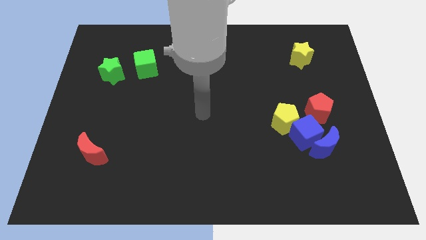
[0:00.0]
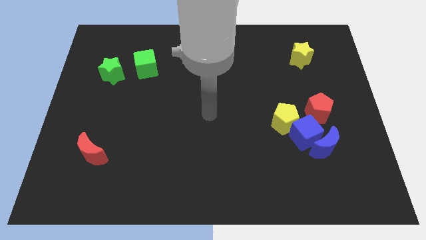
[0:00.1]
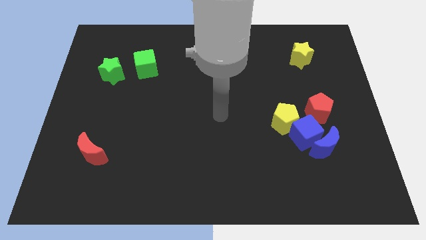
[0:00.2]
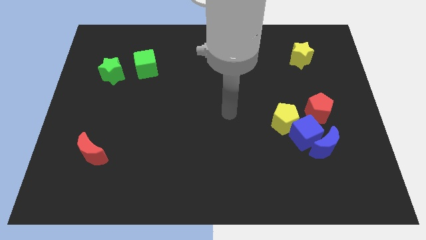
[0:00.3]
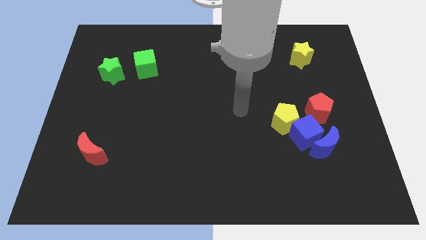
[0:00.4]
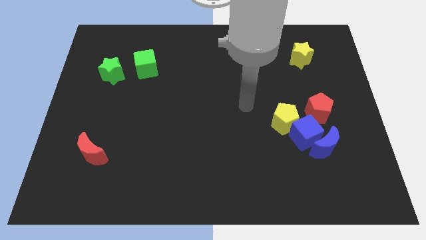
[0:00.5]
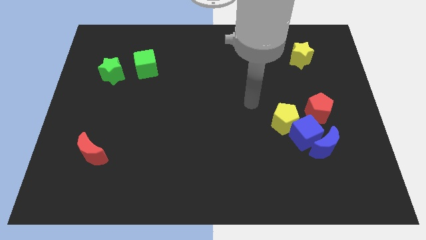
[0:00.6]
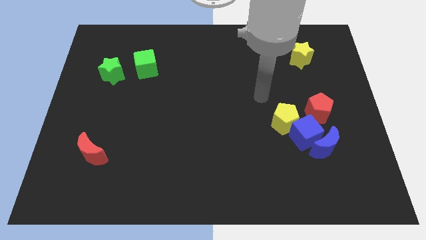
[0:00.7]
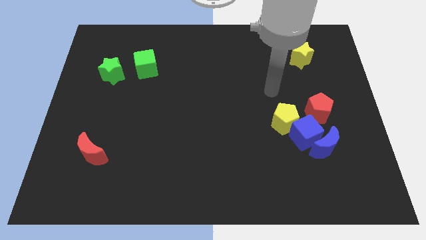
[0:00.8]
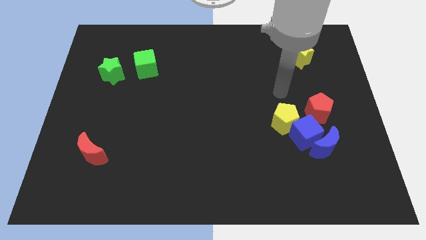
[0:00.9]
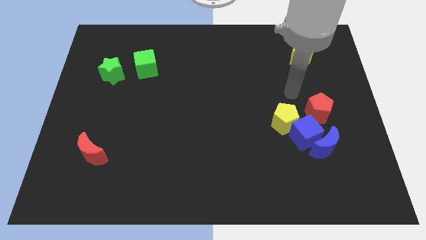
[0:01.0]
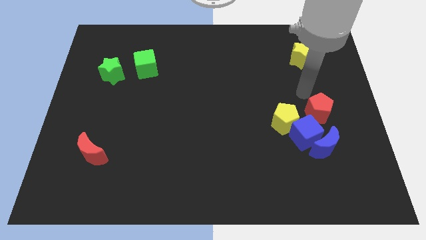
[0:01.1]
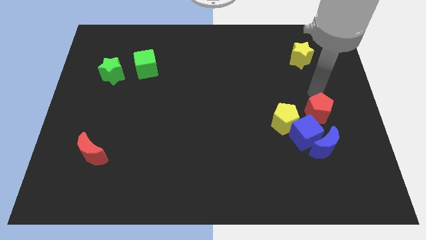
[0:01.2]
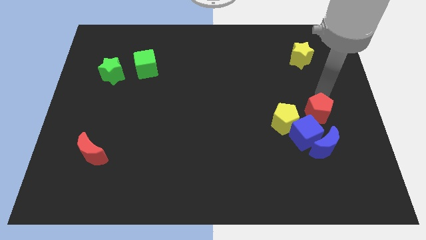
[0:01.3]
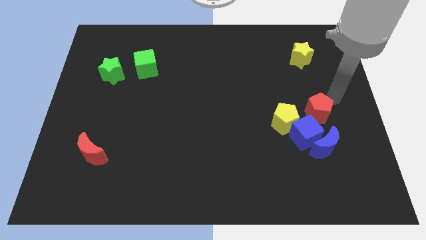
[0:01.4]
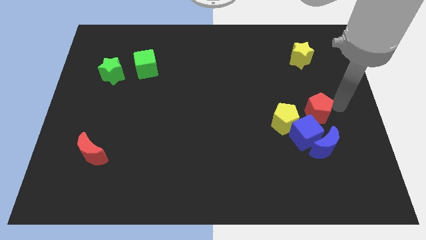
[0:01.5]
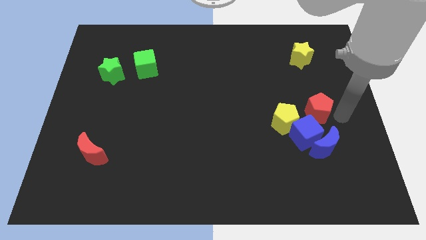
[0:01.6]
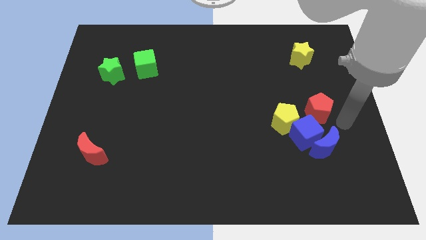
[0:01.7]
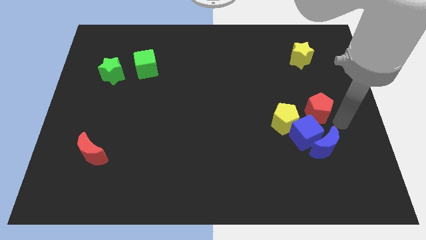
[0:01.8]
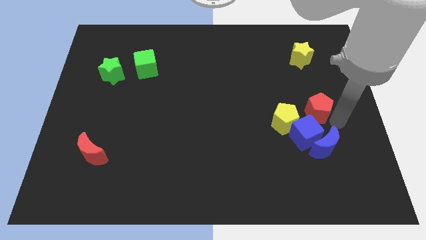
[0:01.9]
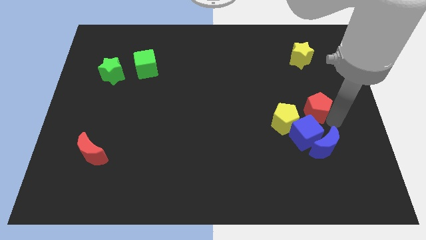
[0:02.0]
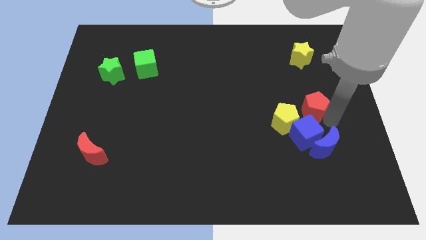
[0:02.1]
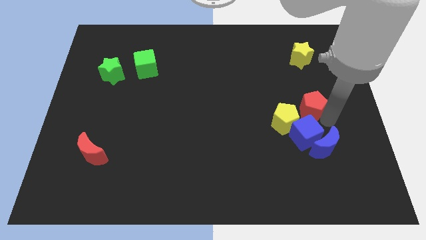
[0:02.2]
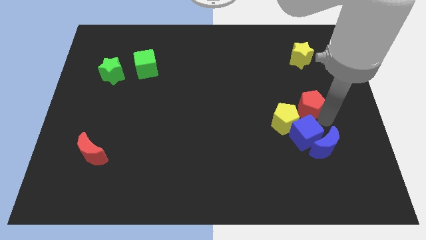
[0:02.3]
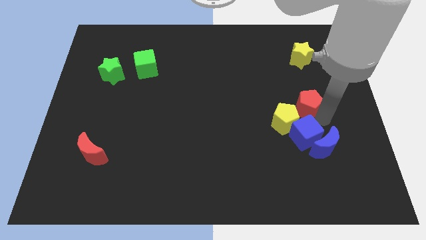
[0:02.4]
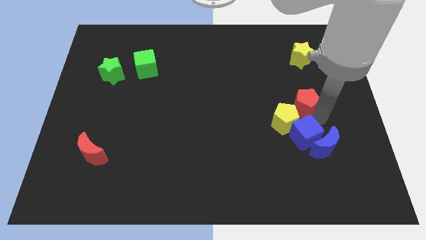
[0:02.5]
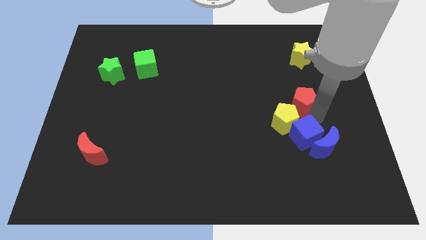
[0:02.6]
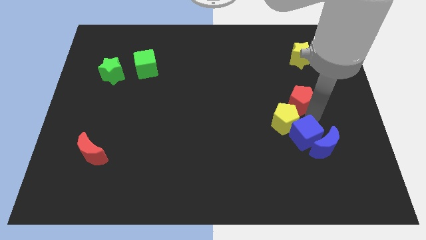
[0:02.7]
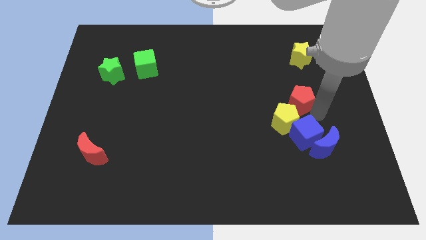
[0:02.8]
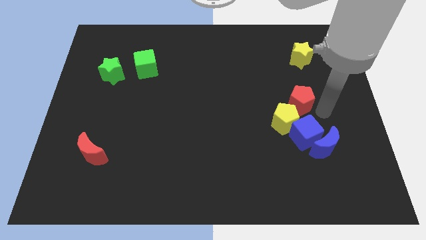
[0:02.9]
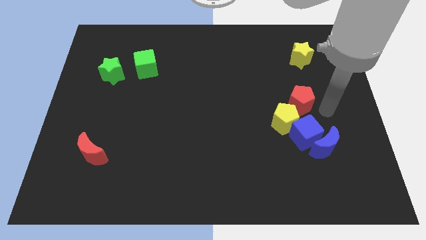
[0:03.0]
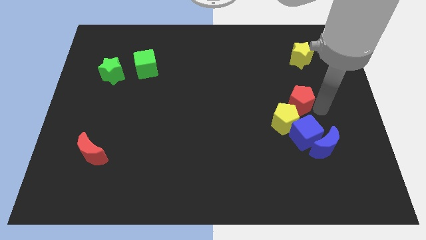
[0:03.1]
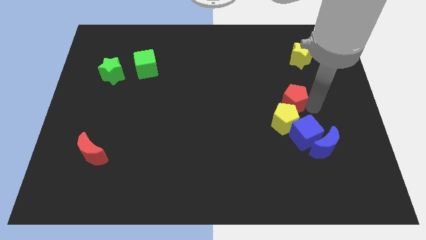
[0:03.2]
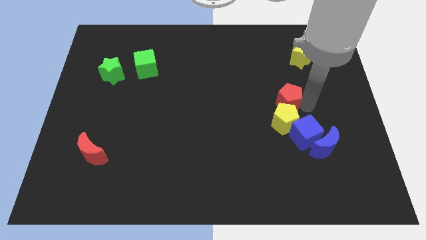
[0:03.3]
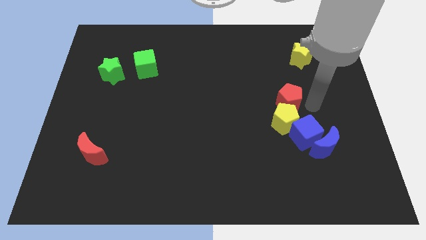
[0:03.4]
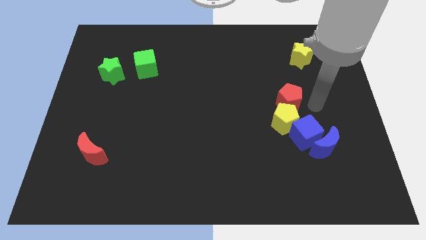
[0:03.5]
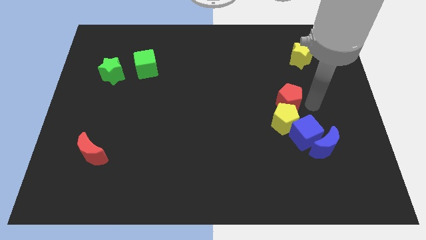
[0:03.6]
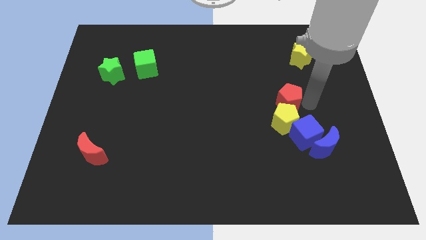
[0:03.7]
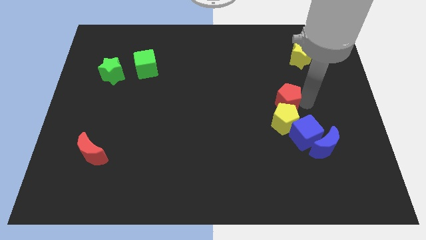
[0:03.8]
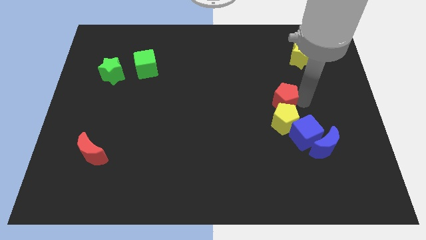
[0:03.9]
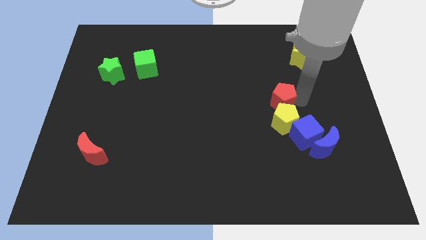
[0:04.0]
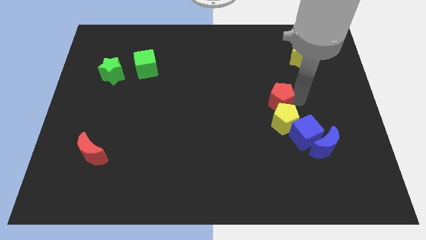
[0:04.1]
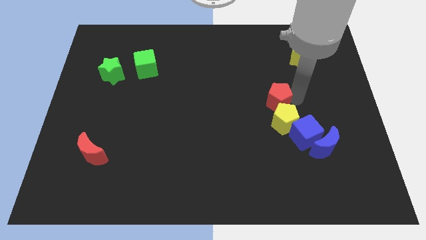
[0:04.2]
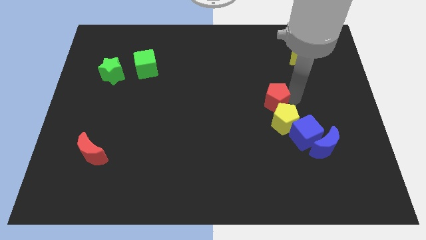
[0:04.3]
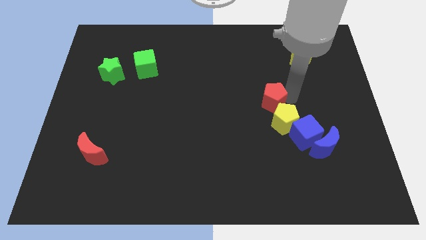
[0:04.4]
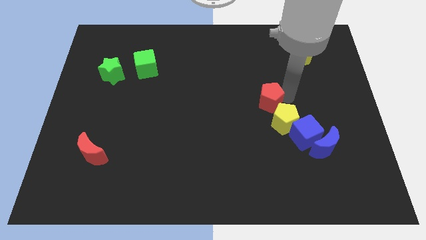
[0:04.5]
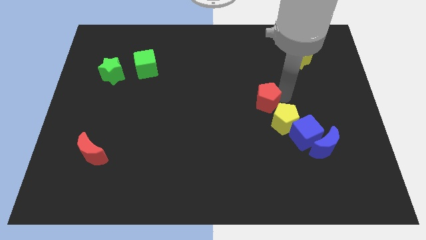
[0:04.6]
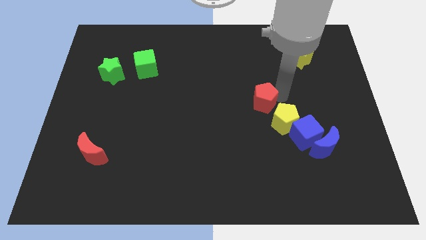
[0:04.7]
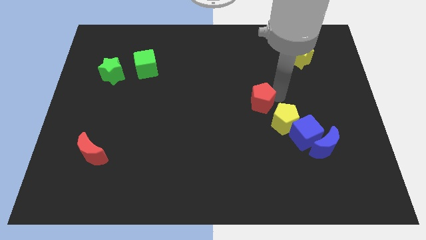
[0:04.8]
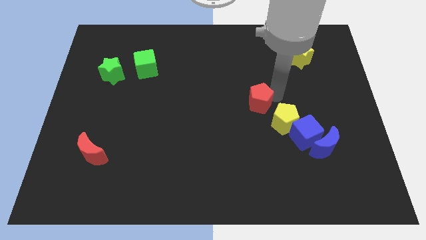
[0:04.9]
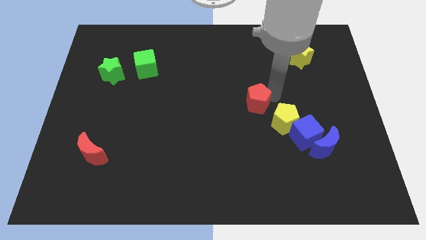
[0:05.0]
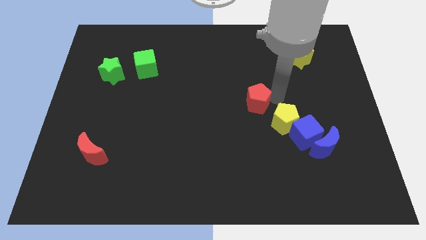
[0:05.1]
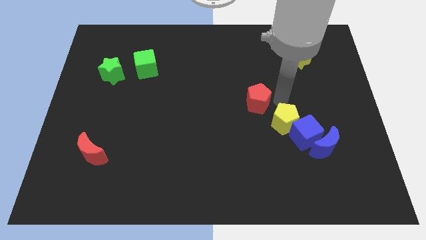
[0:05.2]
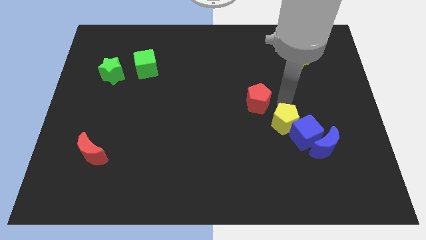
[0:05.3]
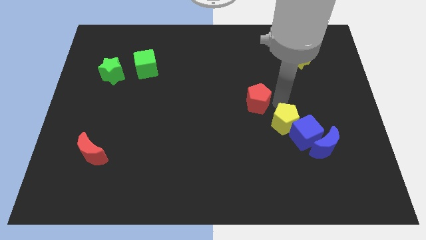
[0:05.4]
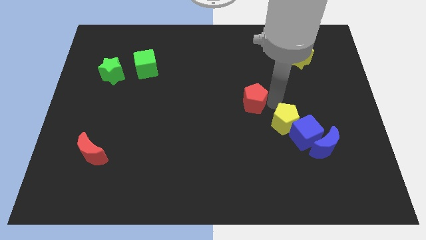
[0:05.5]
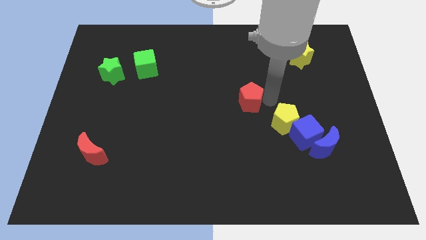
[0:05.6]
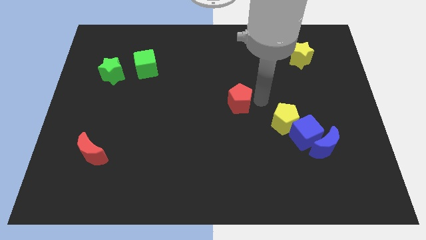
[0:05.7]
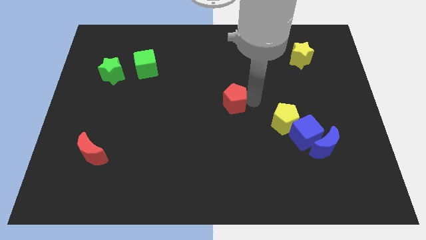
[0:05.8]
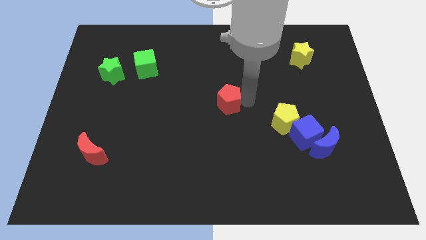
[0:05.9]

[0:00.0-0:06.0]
push the red pentagon left

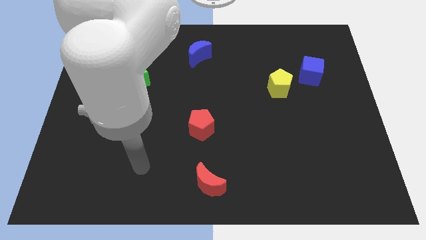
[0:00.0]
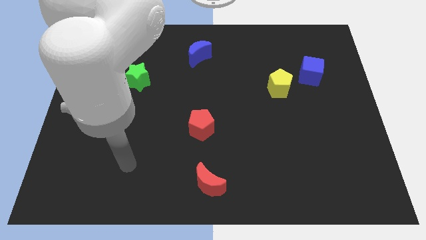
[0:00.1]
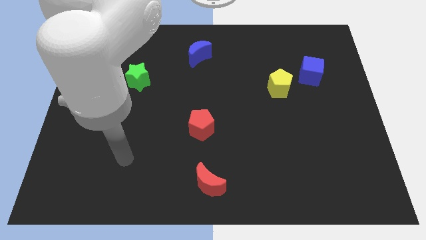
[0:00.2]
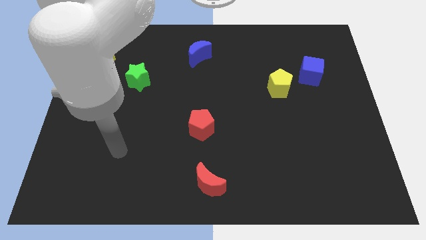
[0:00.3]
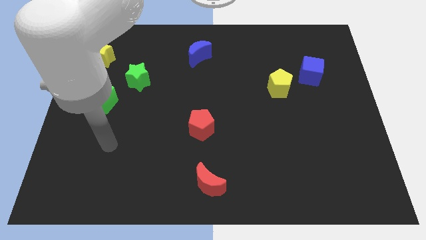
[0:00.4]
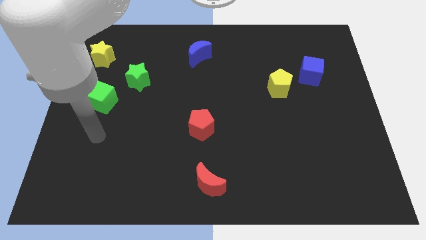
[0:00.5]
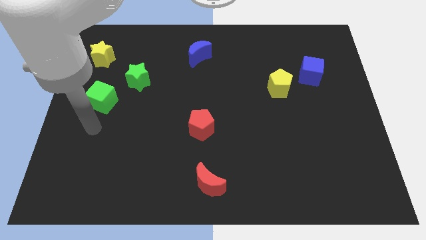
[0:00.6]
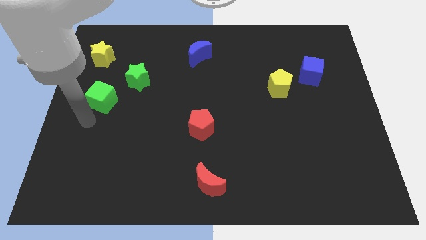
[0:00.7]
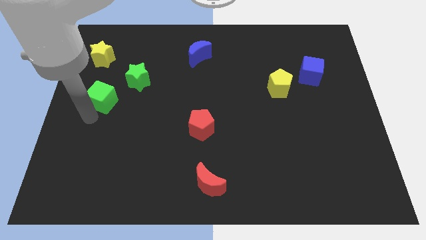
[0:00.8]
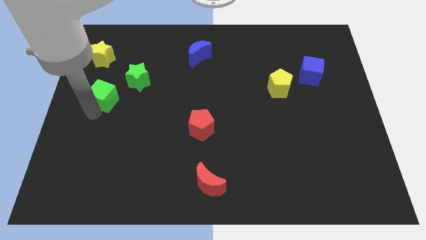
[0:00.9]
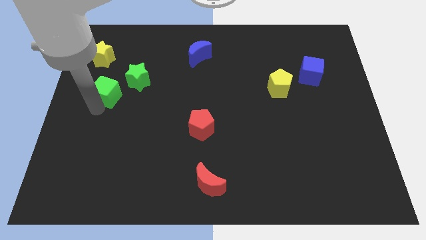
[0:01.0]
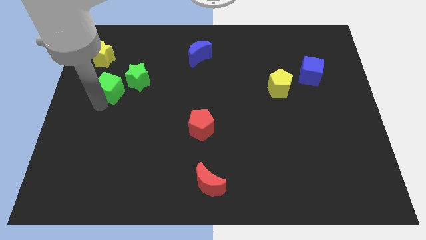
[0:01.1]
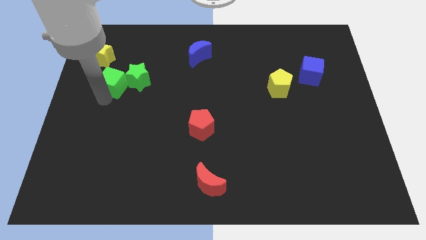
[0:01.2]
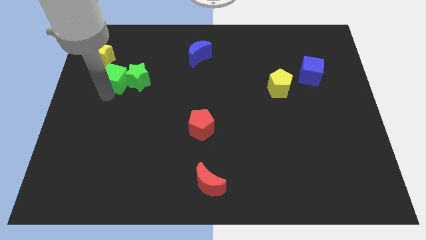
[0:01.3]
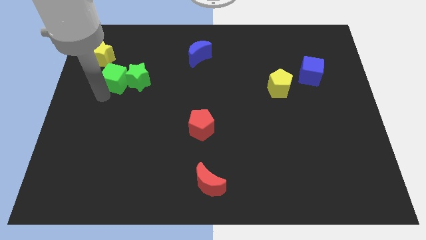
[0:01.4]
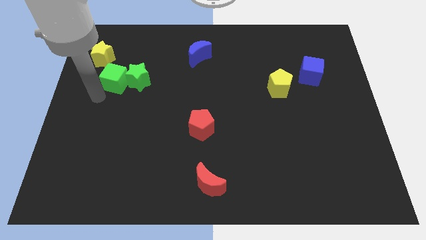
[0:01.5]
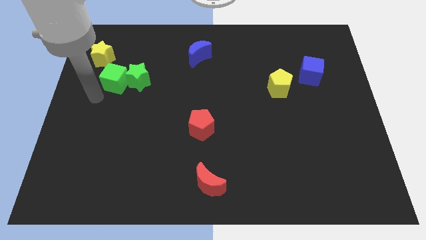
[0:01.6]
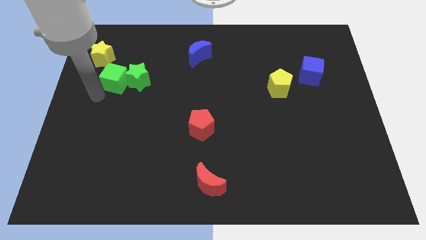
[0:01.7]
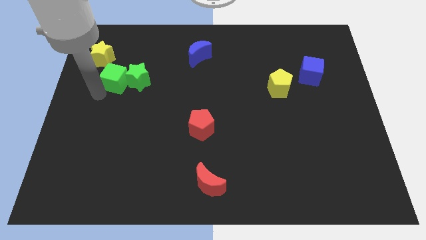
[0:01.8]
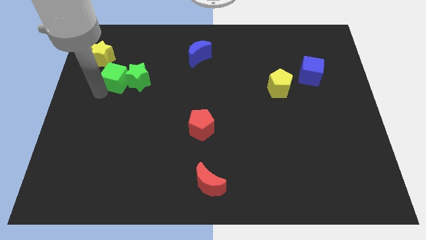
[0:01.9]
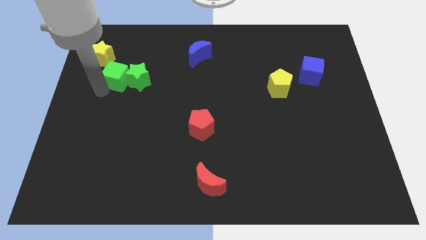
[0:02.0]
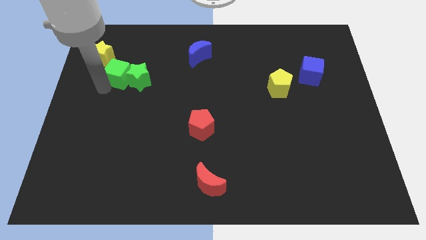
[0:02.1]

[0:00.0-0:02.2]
slide the green cube somewhat up and right
